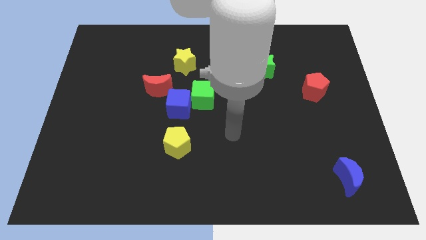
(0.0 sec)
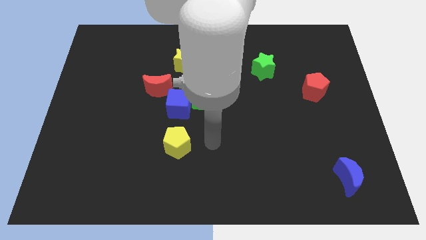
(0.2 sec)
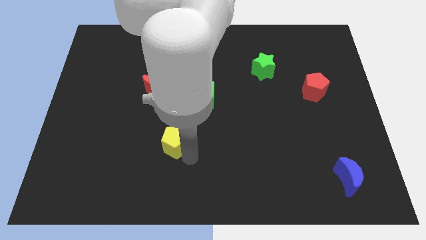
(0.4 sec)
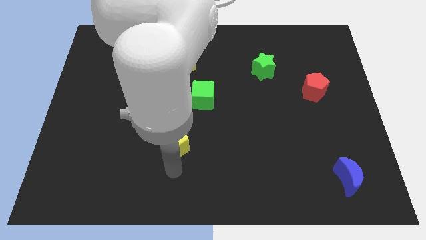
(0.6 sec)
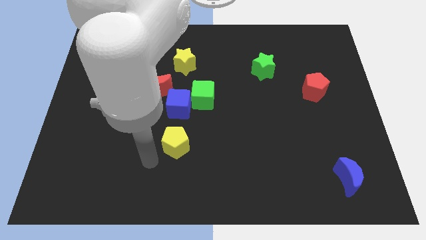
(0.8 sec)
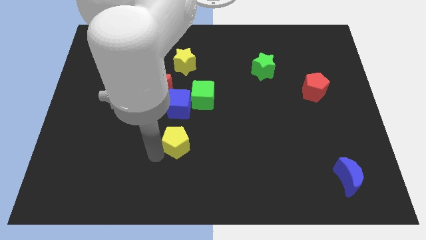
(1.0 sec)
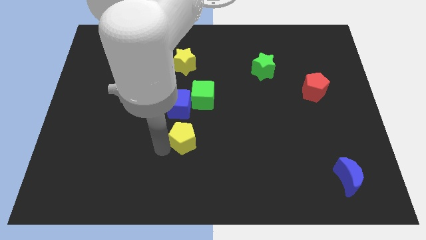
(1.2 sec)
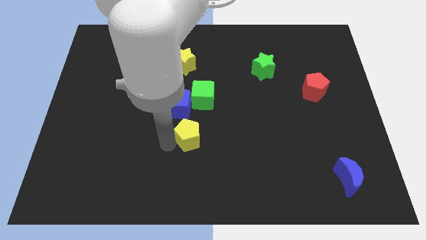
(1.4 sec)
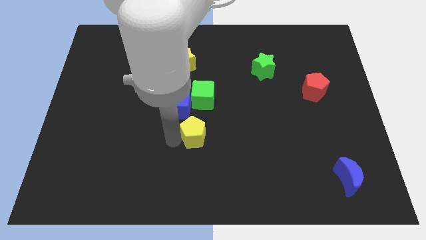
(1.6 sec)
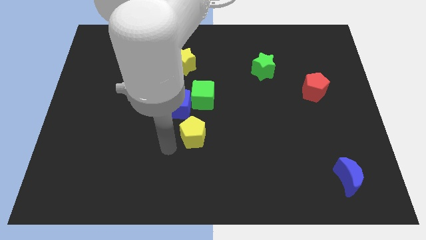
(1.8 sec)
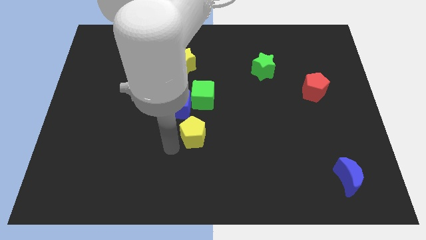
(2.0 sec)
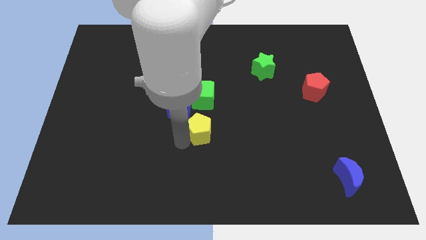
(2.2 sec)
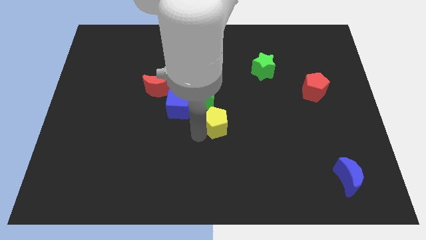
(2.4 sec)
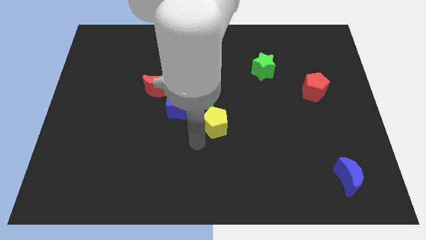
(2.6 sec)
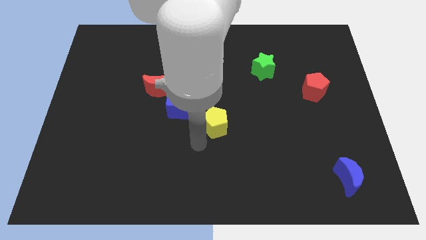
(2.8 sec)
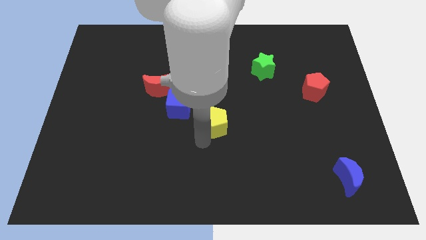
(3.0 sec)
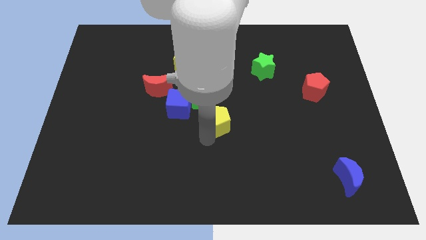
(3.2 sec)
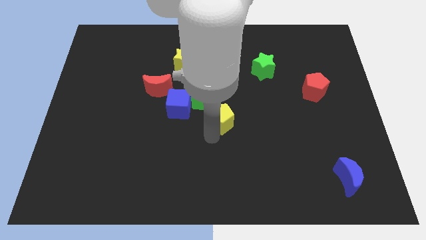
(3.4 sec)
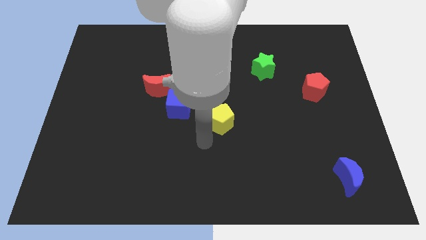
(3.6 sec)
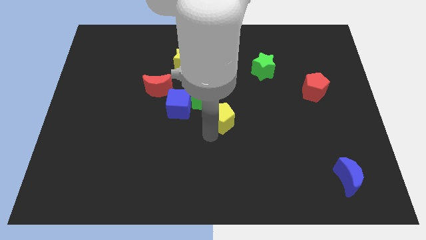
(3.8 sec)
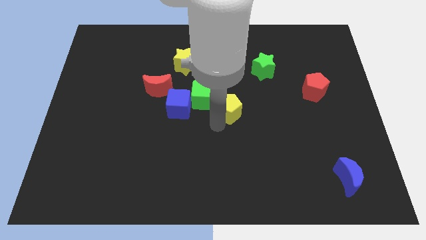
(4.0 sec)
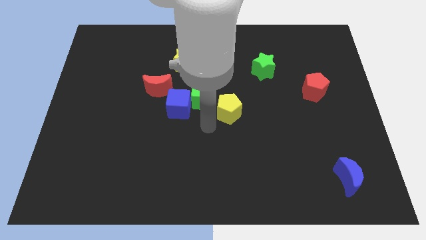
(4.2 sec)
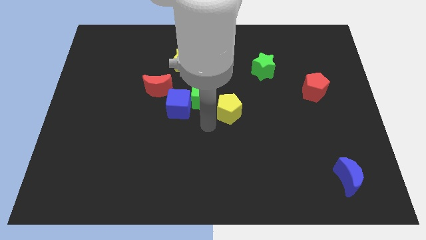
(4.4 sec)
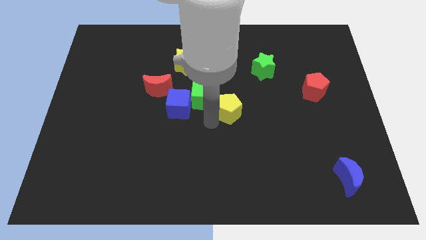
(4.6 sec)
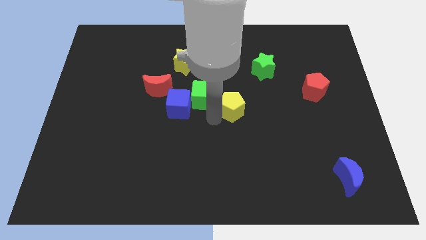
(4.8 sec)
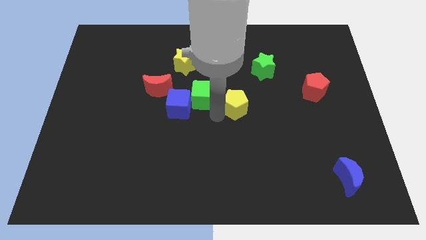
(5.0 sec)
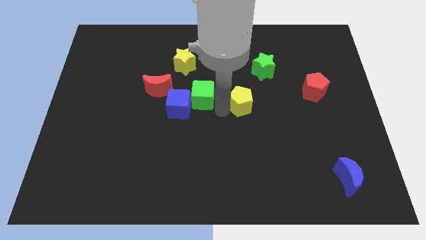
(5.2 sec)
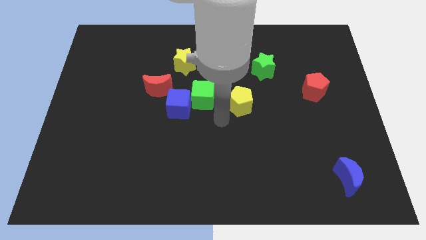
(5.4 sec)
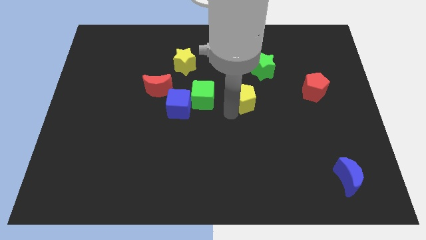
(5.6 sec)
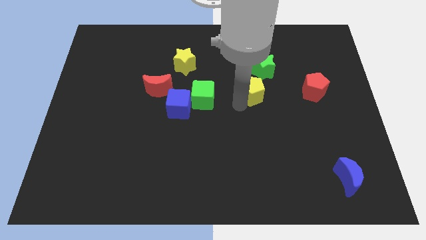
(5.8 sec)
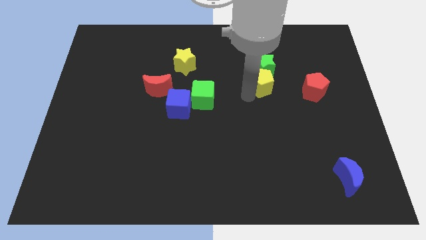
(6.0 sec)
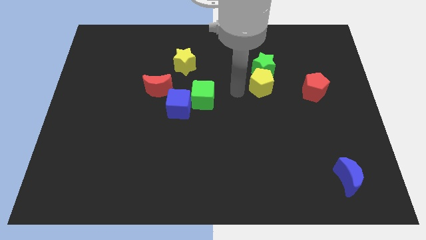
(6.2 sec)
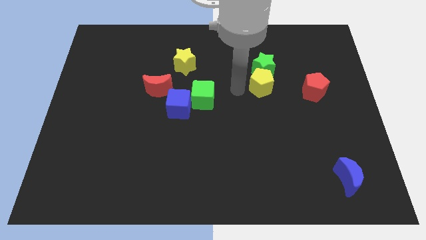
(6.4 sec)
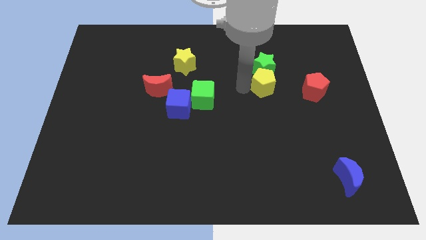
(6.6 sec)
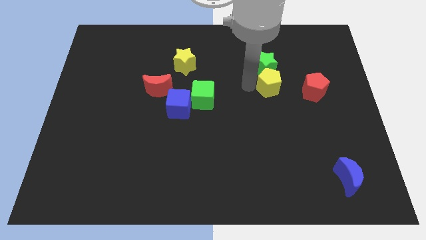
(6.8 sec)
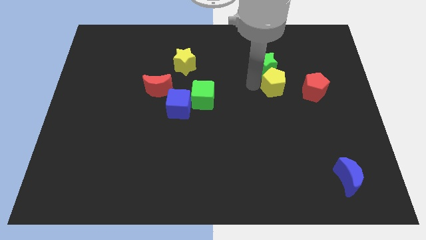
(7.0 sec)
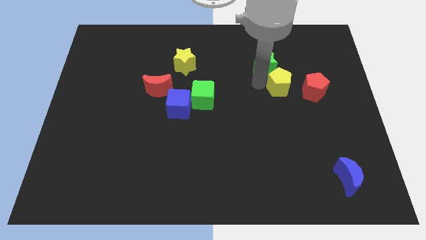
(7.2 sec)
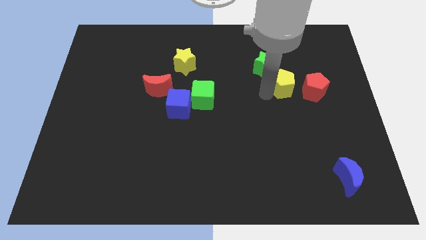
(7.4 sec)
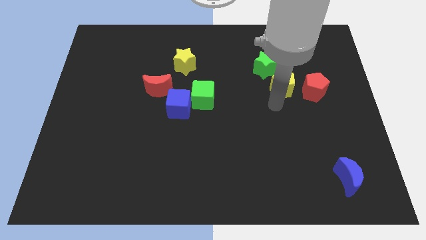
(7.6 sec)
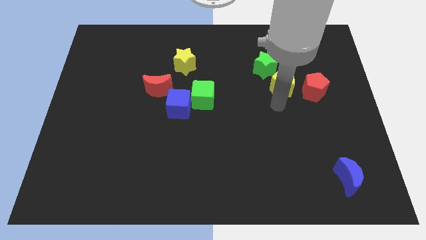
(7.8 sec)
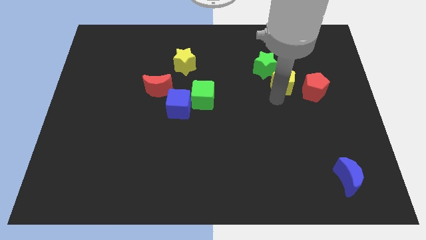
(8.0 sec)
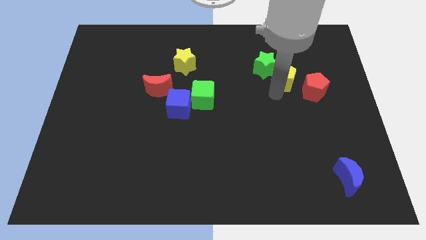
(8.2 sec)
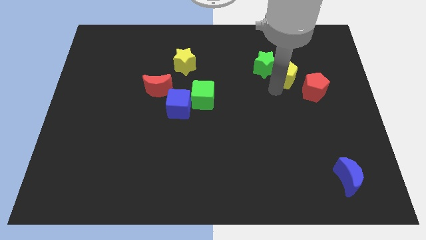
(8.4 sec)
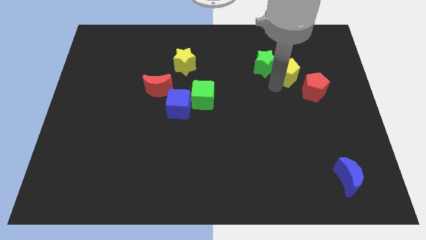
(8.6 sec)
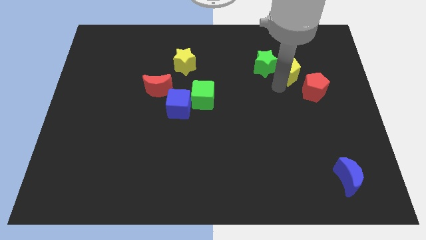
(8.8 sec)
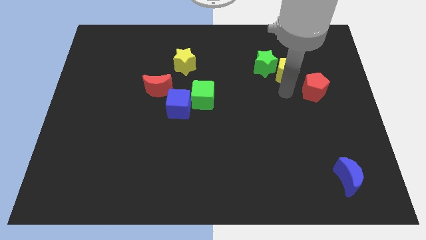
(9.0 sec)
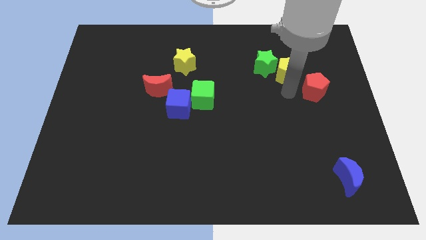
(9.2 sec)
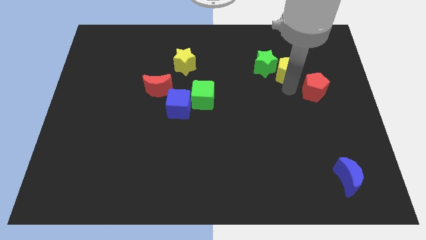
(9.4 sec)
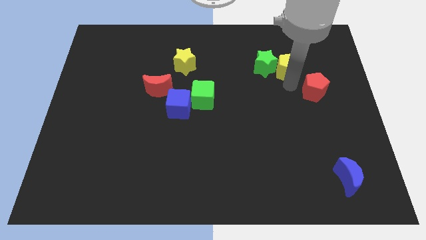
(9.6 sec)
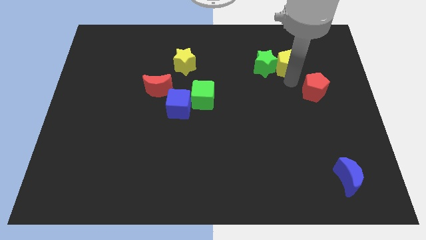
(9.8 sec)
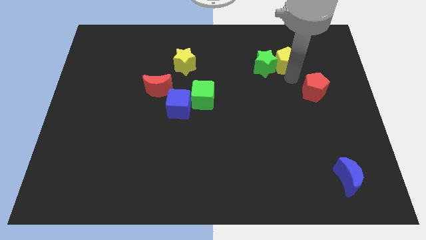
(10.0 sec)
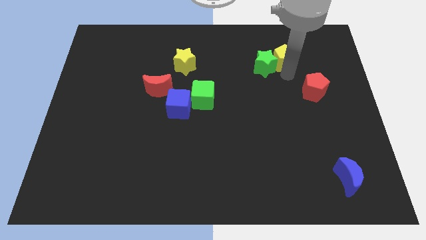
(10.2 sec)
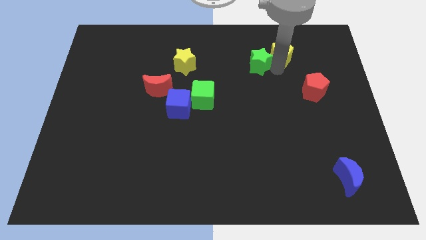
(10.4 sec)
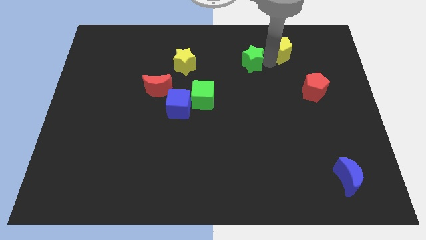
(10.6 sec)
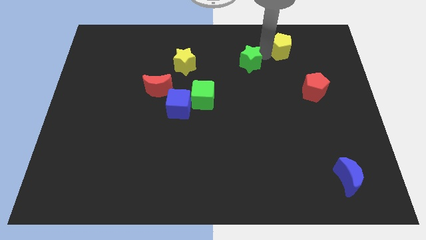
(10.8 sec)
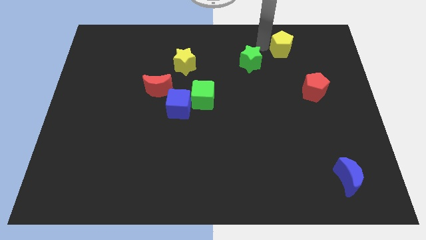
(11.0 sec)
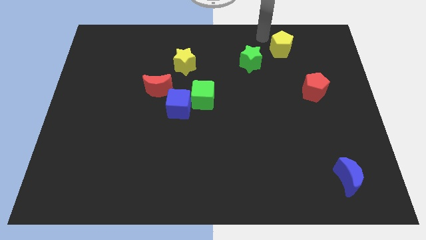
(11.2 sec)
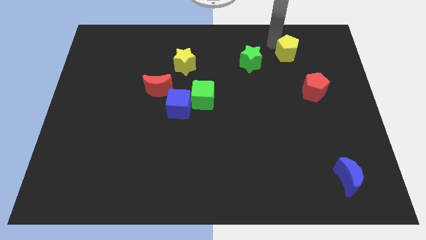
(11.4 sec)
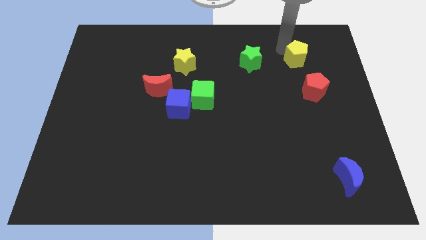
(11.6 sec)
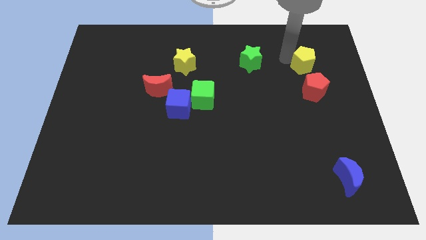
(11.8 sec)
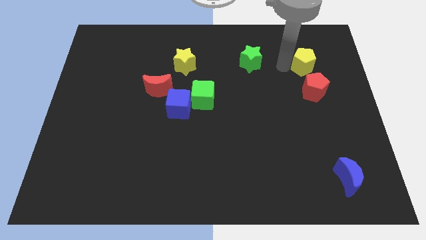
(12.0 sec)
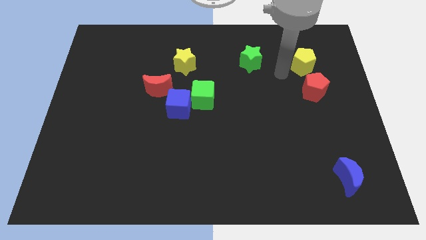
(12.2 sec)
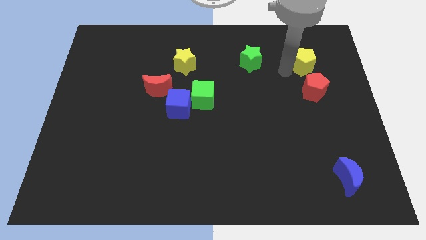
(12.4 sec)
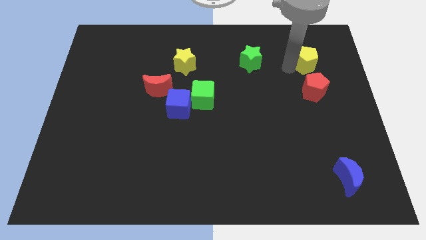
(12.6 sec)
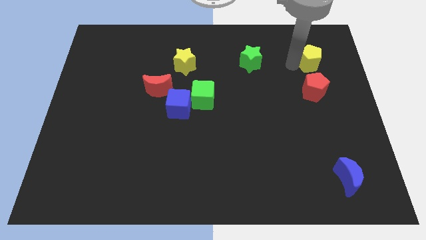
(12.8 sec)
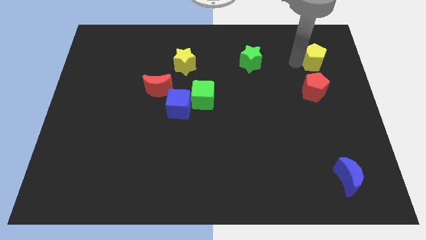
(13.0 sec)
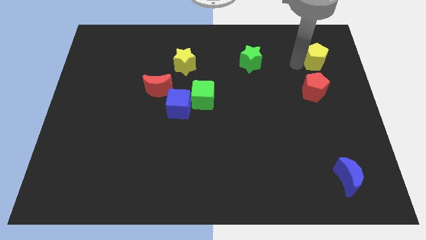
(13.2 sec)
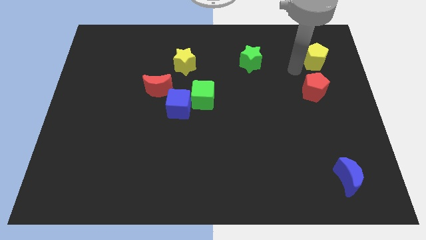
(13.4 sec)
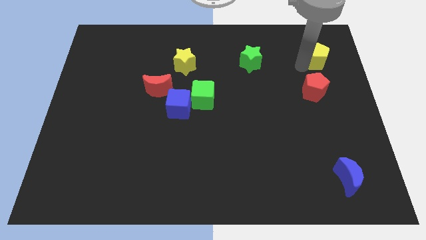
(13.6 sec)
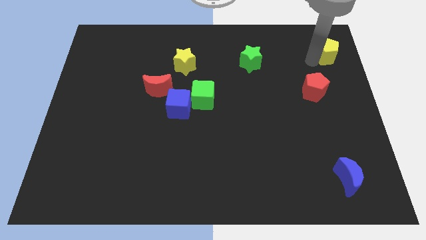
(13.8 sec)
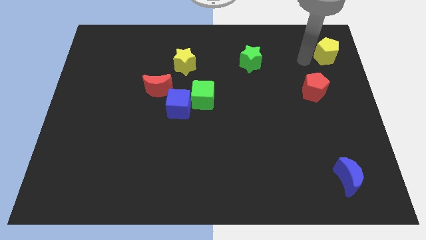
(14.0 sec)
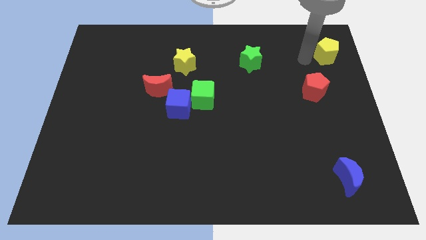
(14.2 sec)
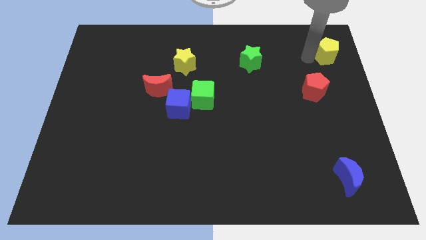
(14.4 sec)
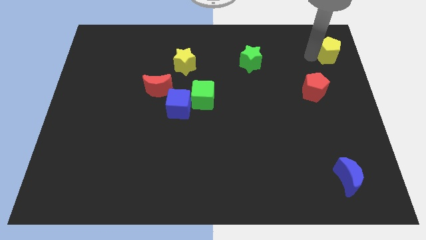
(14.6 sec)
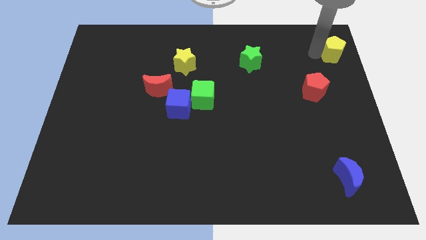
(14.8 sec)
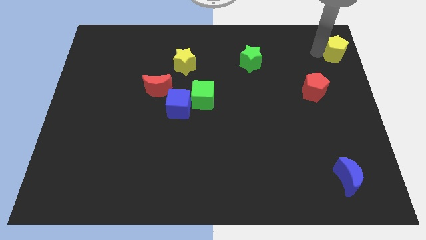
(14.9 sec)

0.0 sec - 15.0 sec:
slide the yellow pentagon to the upper right corner
